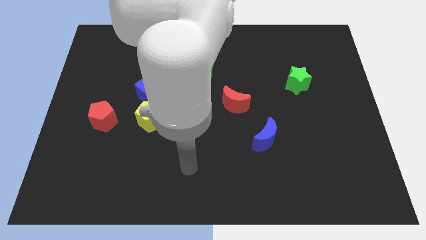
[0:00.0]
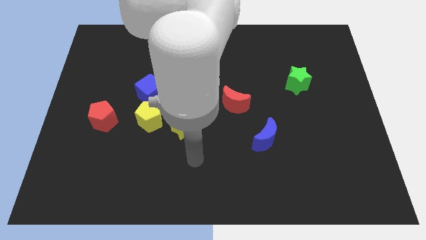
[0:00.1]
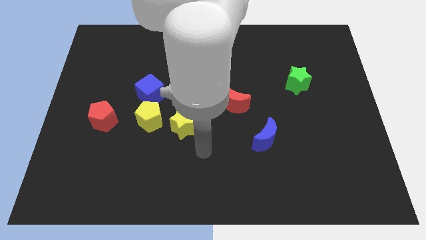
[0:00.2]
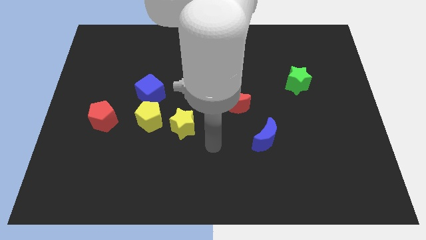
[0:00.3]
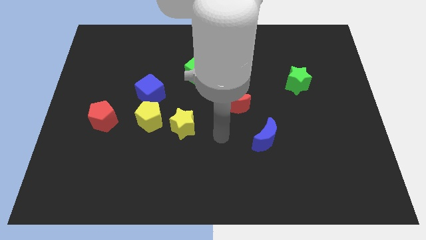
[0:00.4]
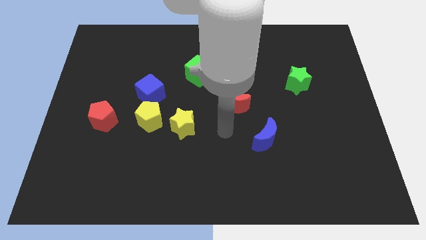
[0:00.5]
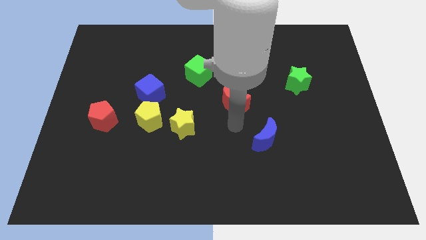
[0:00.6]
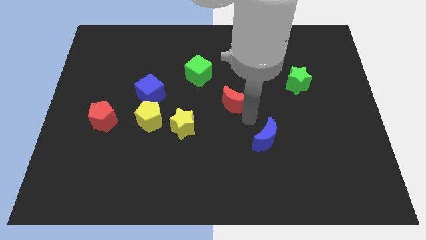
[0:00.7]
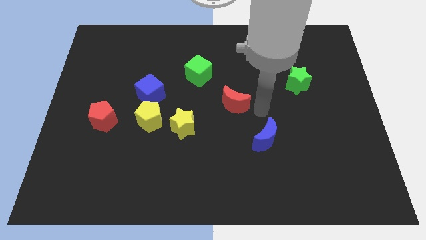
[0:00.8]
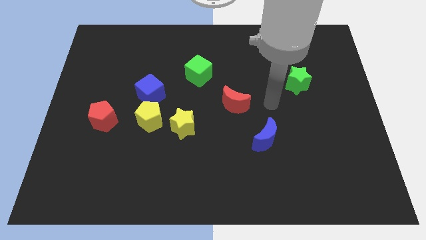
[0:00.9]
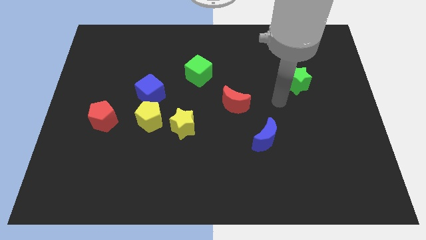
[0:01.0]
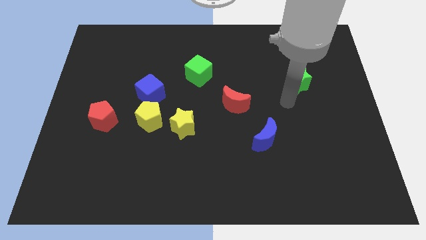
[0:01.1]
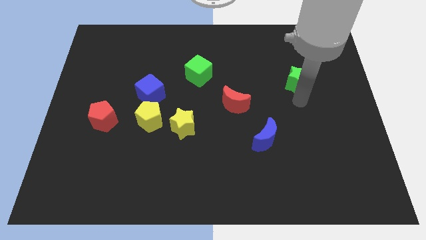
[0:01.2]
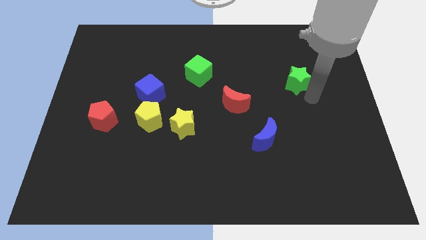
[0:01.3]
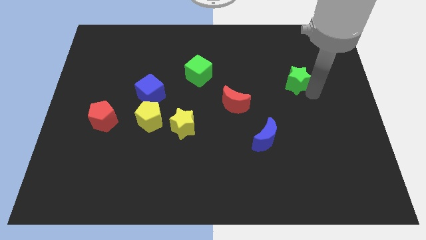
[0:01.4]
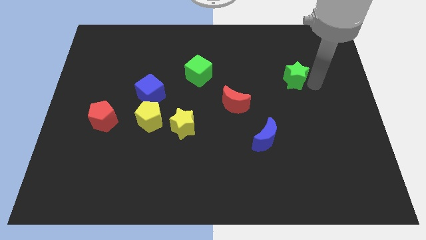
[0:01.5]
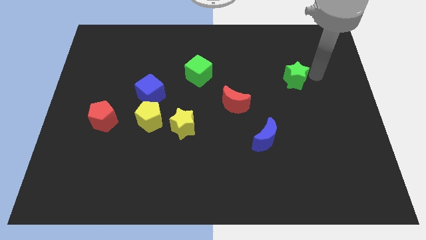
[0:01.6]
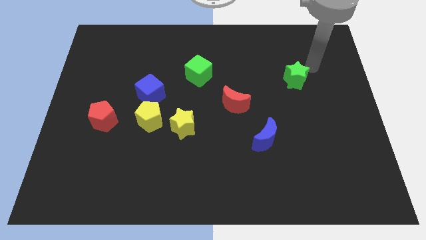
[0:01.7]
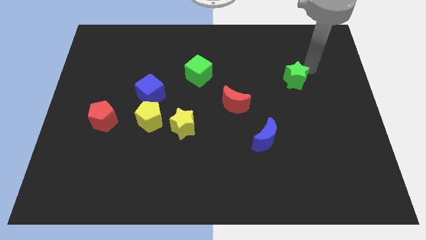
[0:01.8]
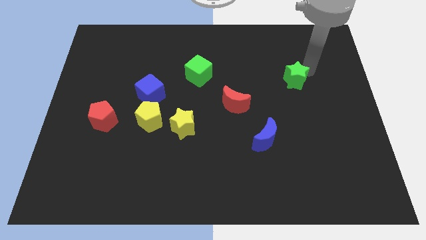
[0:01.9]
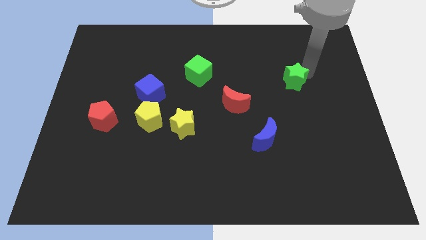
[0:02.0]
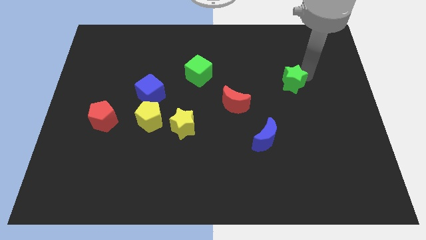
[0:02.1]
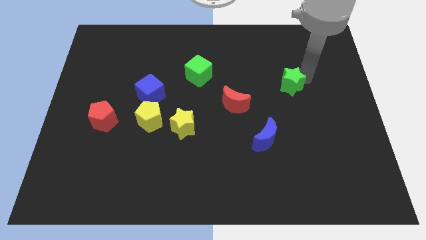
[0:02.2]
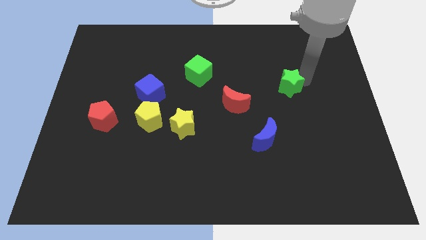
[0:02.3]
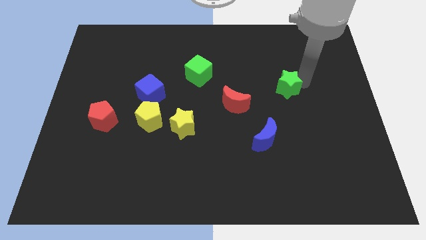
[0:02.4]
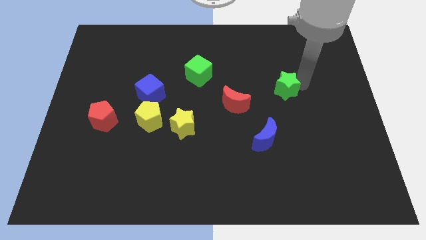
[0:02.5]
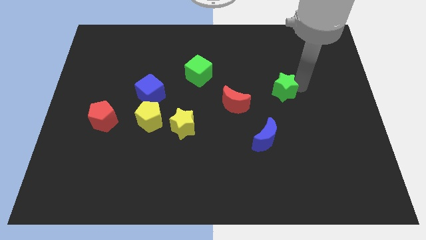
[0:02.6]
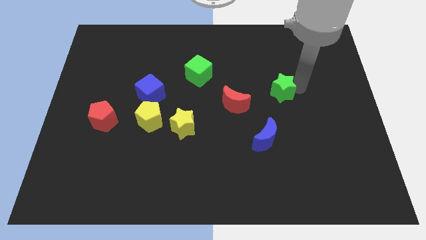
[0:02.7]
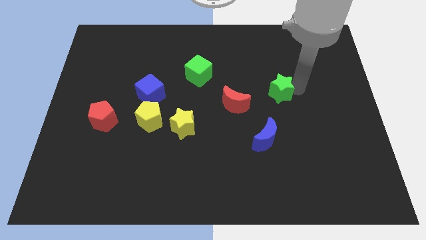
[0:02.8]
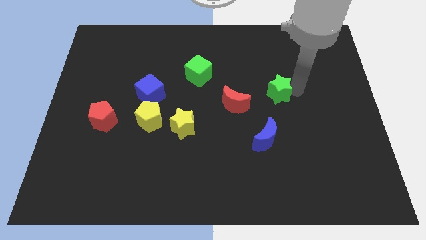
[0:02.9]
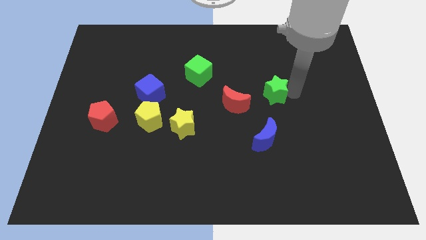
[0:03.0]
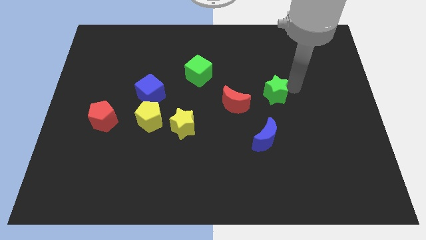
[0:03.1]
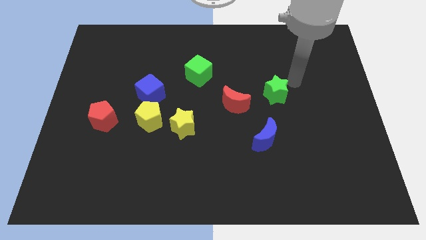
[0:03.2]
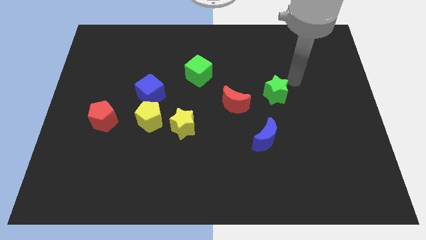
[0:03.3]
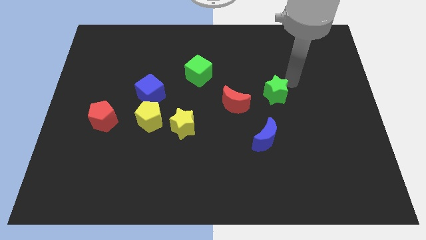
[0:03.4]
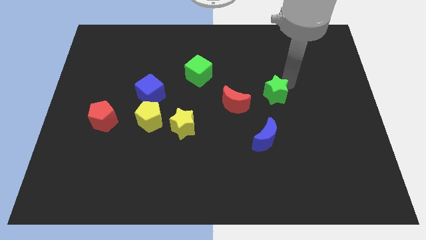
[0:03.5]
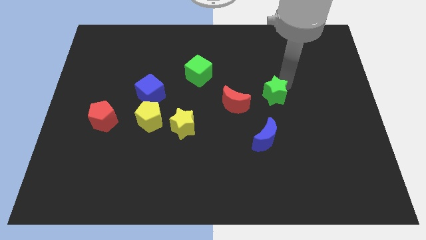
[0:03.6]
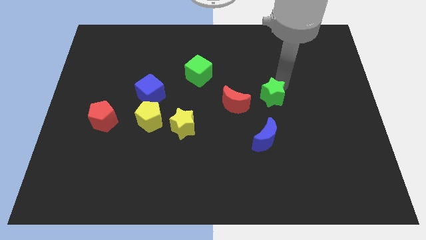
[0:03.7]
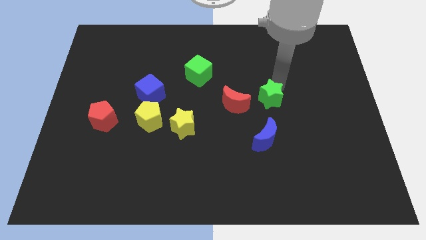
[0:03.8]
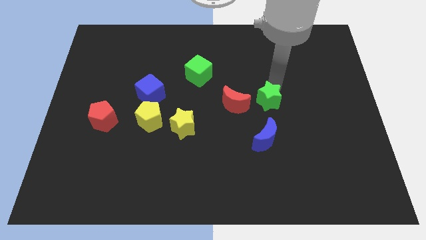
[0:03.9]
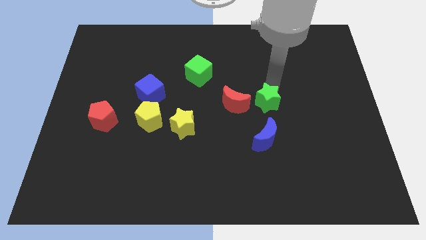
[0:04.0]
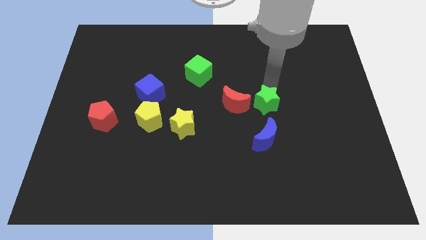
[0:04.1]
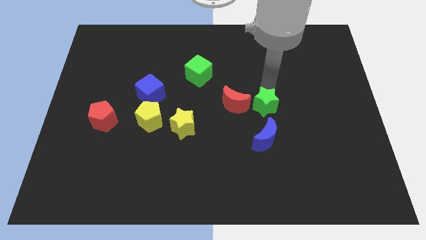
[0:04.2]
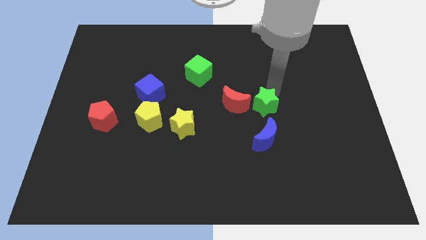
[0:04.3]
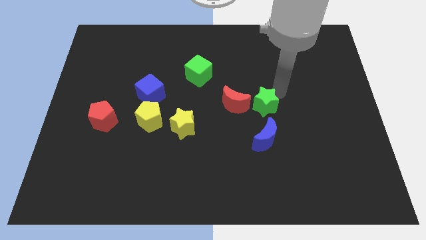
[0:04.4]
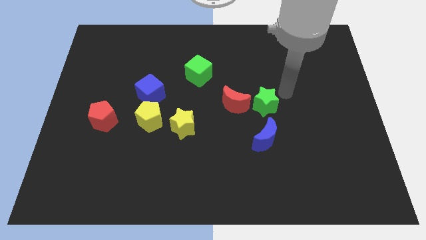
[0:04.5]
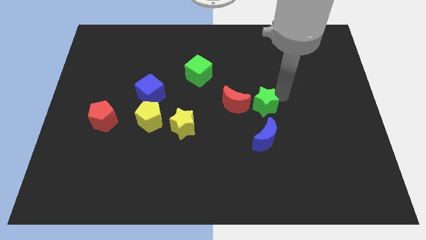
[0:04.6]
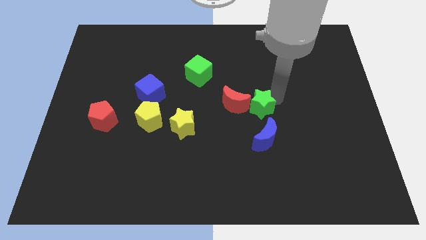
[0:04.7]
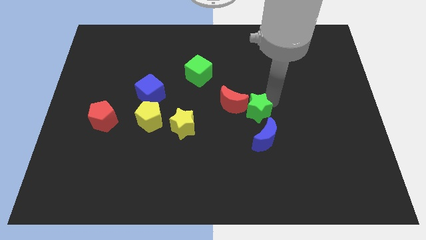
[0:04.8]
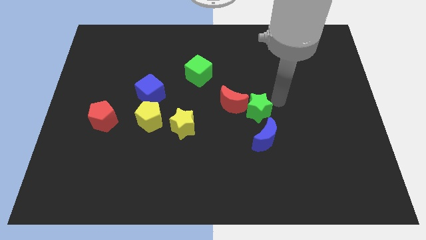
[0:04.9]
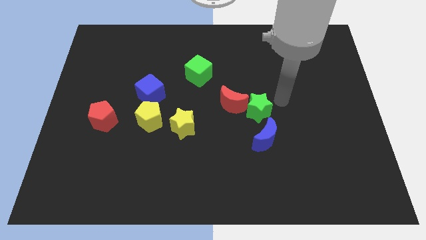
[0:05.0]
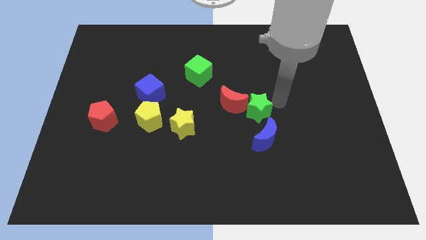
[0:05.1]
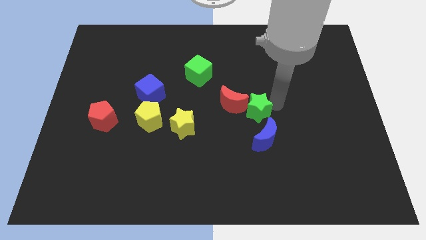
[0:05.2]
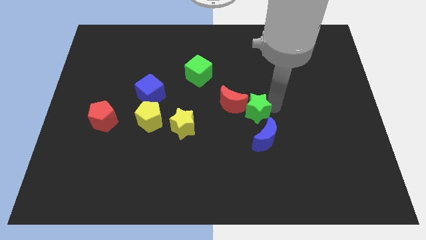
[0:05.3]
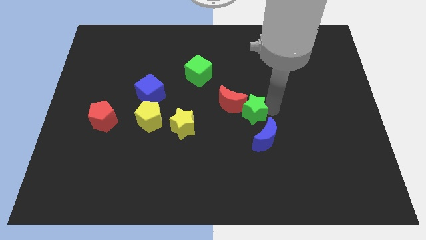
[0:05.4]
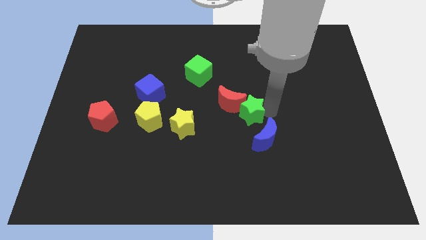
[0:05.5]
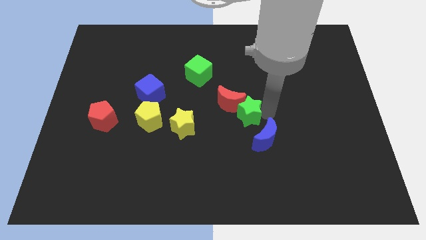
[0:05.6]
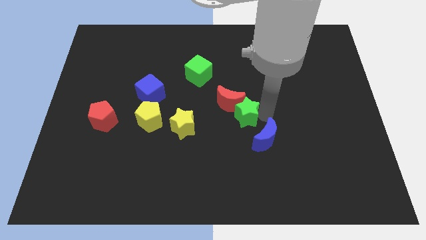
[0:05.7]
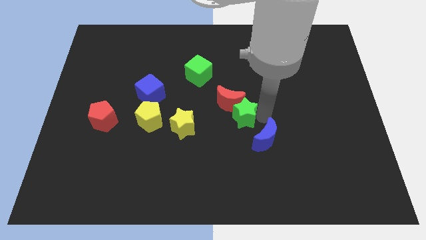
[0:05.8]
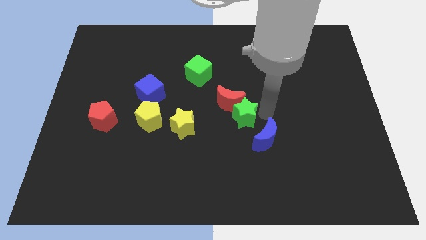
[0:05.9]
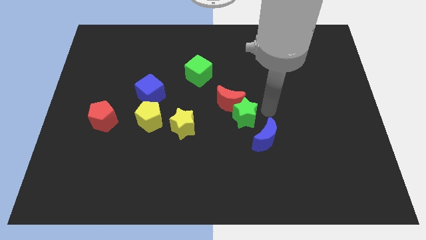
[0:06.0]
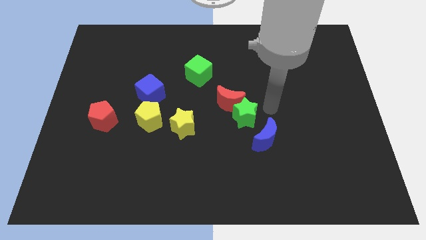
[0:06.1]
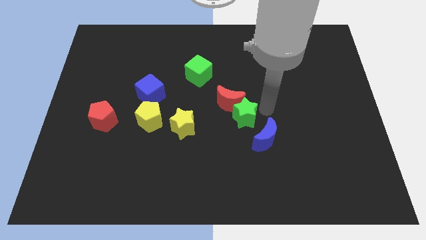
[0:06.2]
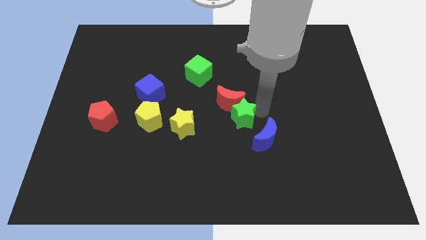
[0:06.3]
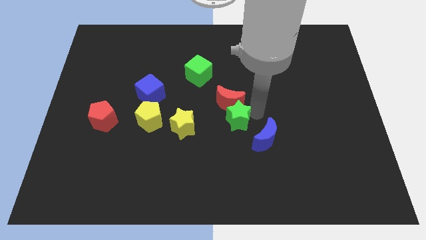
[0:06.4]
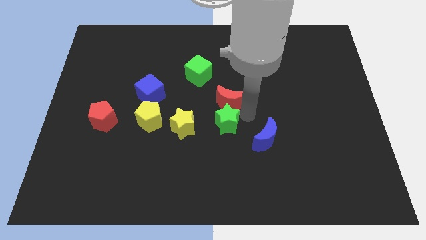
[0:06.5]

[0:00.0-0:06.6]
push the green star down and then to the left

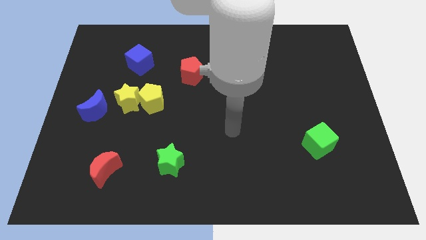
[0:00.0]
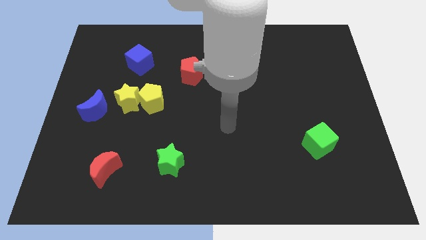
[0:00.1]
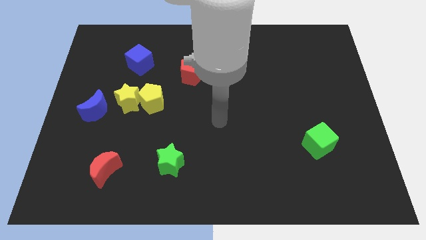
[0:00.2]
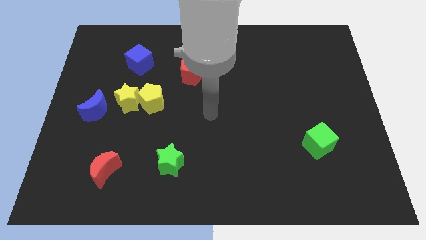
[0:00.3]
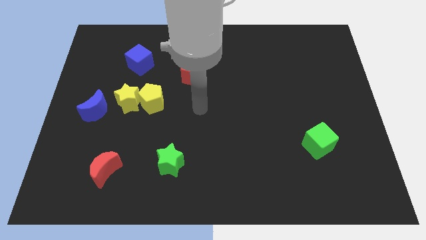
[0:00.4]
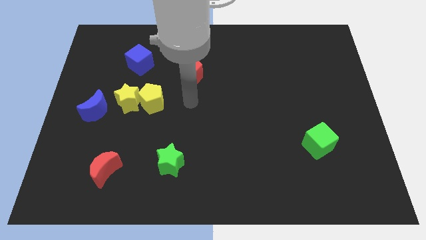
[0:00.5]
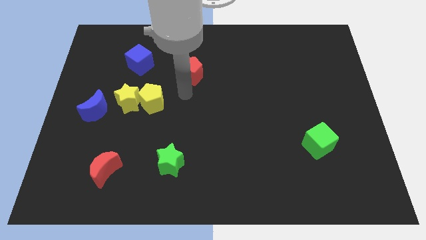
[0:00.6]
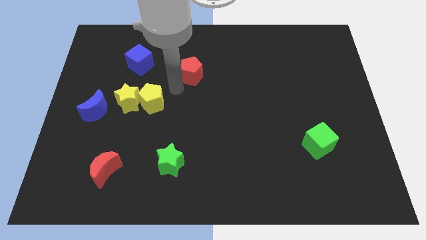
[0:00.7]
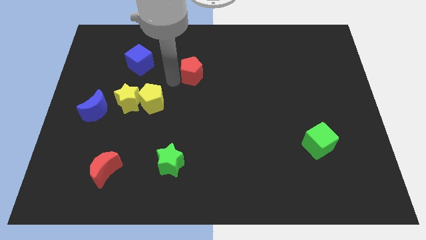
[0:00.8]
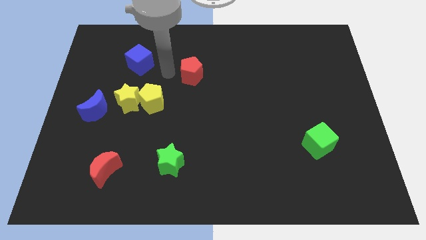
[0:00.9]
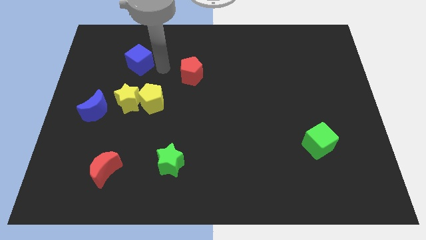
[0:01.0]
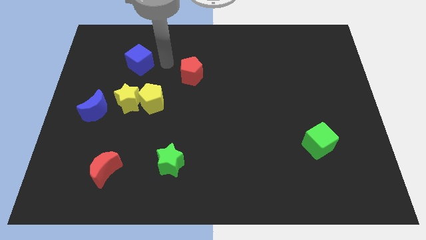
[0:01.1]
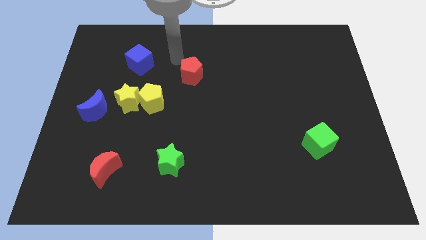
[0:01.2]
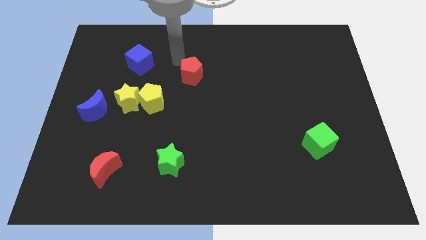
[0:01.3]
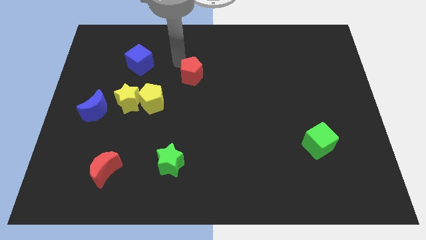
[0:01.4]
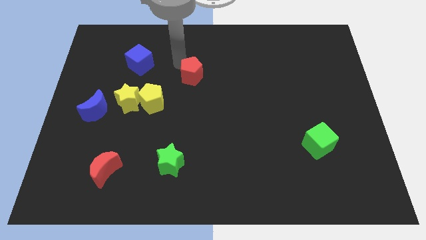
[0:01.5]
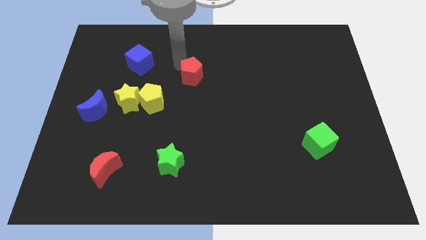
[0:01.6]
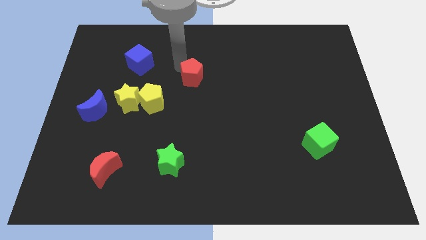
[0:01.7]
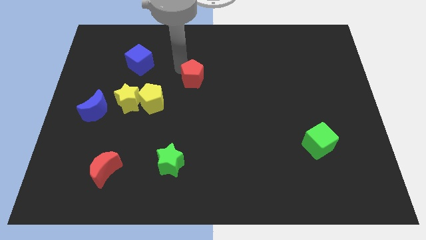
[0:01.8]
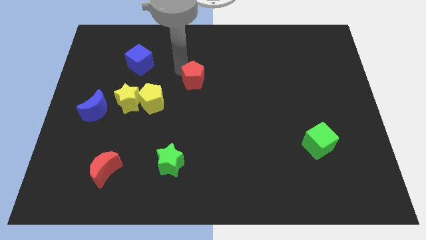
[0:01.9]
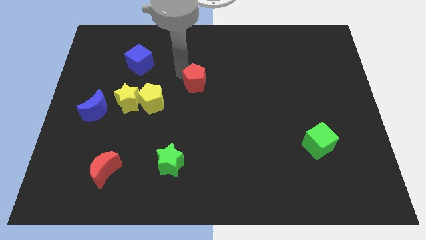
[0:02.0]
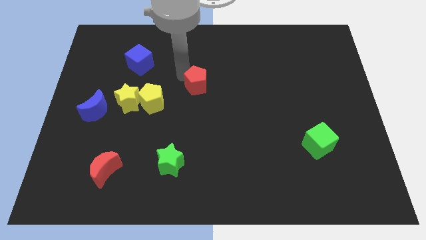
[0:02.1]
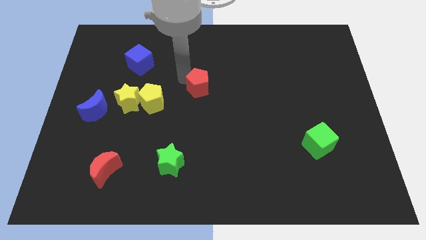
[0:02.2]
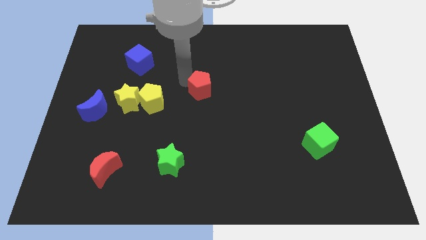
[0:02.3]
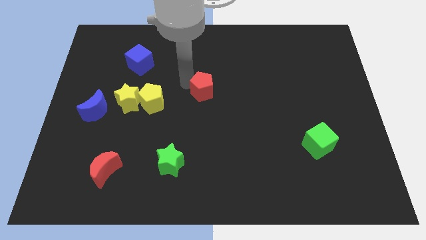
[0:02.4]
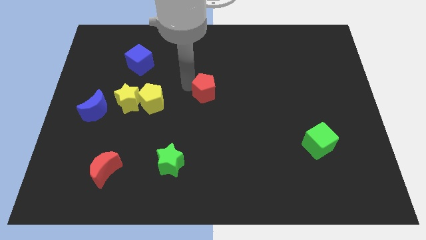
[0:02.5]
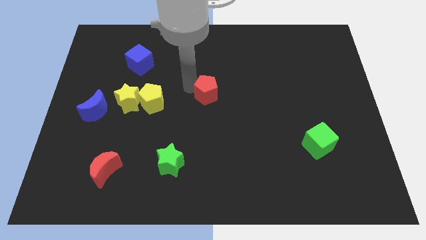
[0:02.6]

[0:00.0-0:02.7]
push the red pentagon downwards and right diagonally a bit
